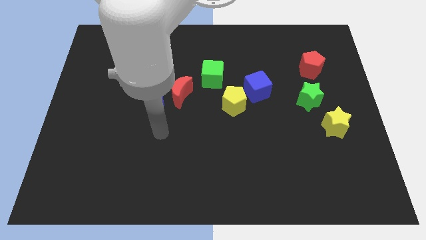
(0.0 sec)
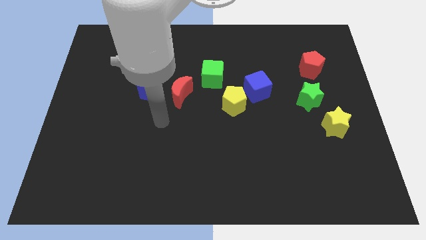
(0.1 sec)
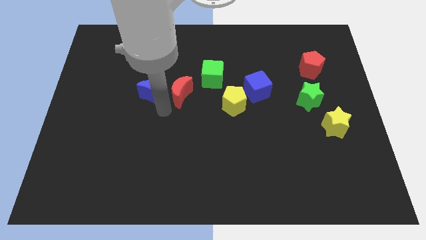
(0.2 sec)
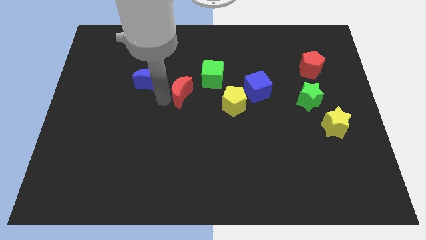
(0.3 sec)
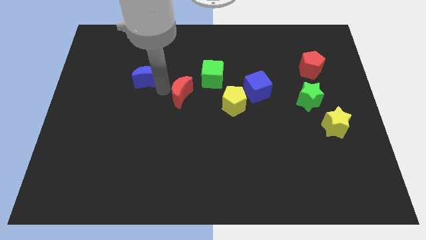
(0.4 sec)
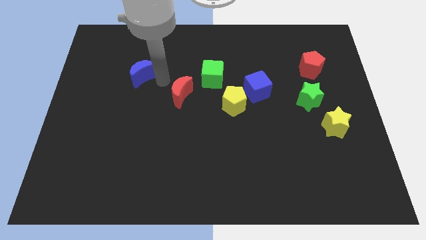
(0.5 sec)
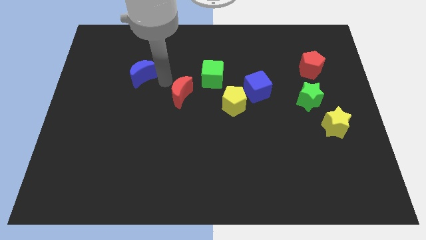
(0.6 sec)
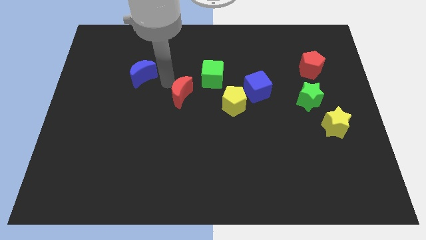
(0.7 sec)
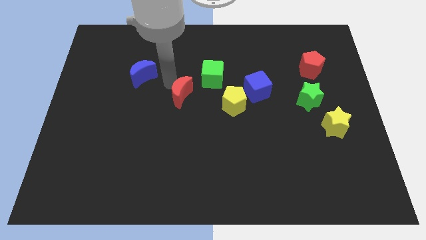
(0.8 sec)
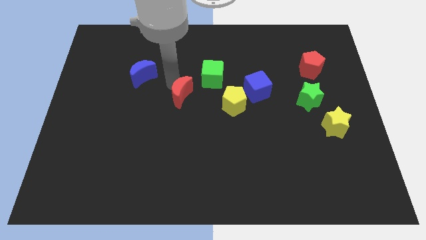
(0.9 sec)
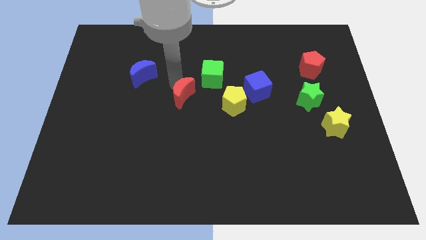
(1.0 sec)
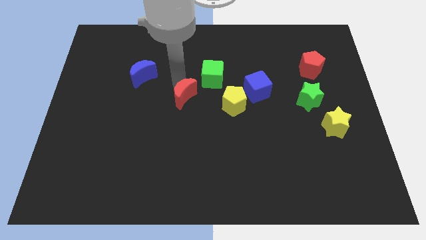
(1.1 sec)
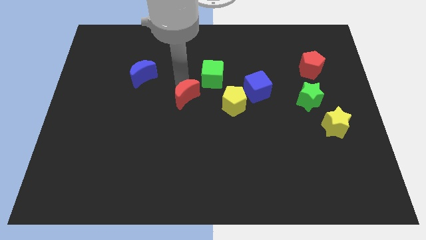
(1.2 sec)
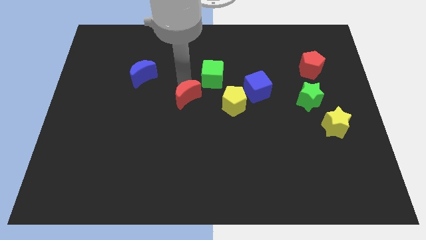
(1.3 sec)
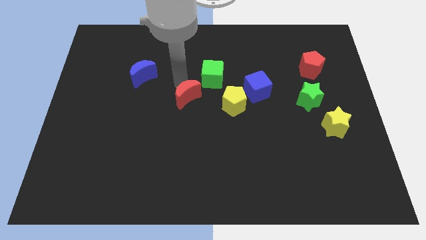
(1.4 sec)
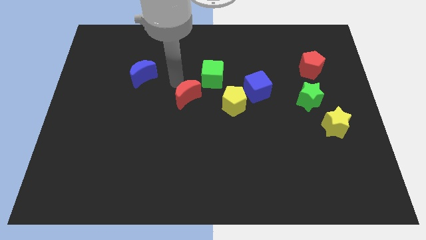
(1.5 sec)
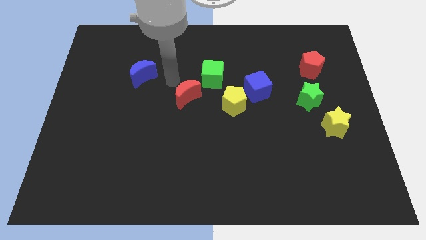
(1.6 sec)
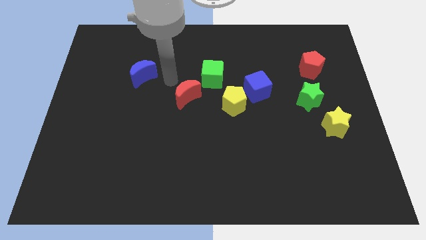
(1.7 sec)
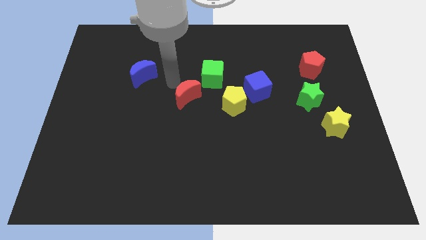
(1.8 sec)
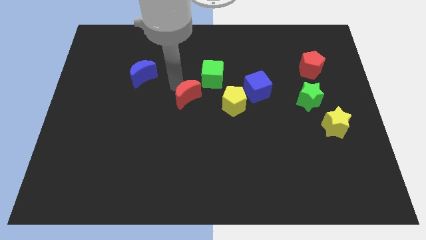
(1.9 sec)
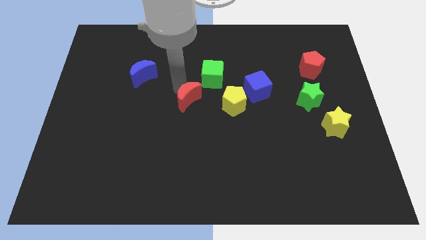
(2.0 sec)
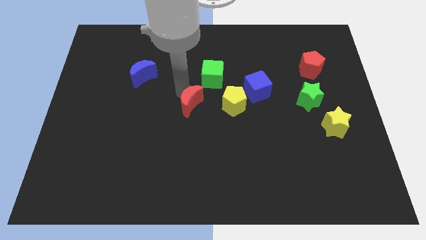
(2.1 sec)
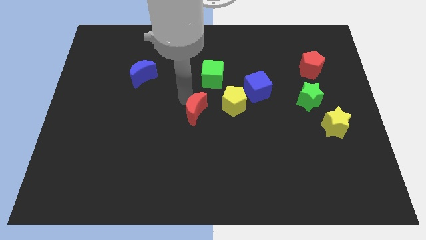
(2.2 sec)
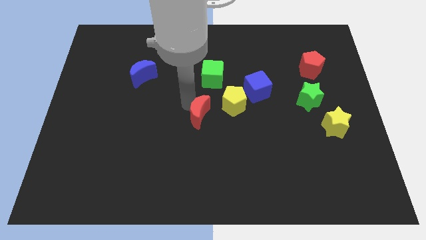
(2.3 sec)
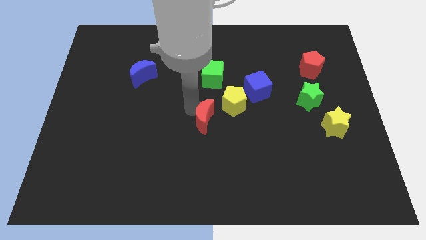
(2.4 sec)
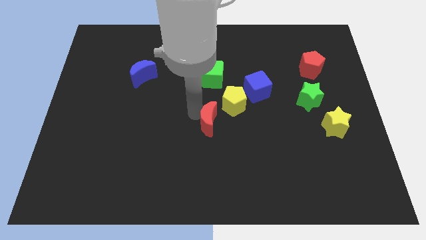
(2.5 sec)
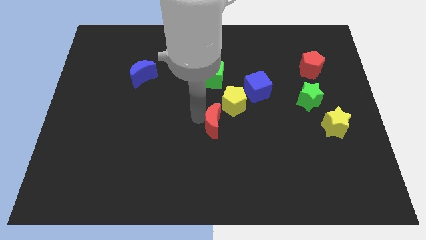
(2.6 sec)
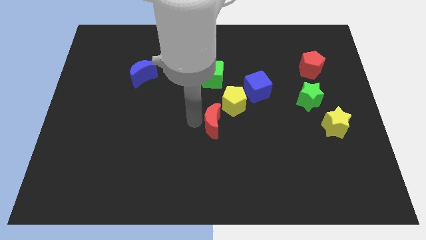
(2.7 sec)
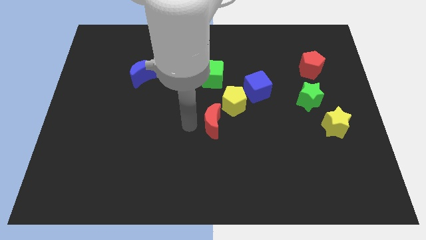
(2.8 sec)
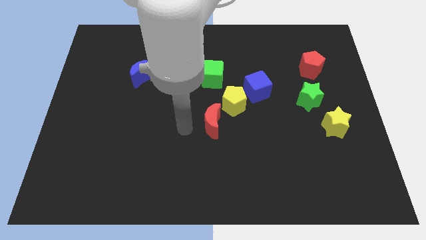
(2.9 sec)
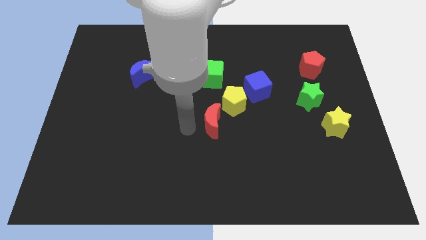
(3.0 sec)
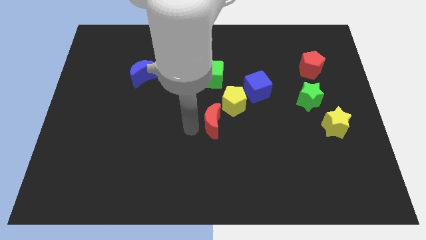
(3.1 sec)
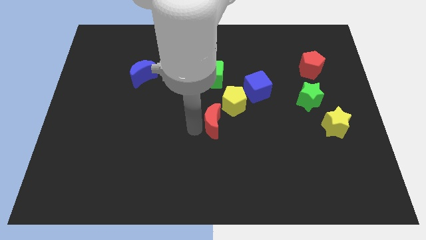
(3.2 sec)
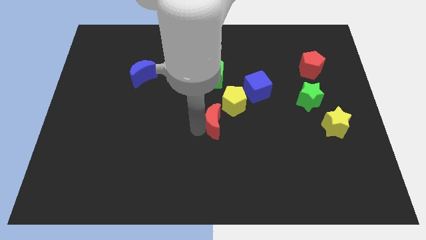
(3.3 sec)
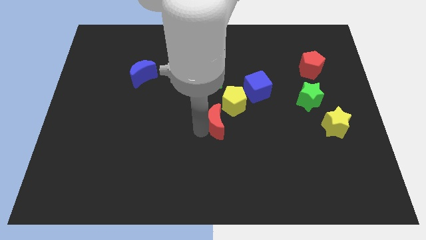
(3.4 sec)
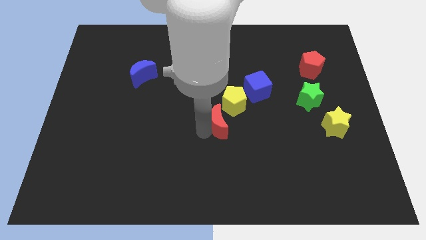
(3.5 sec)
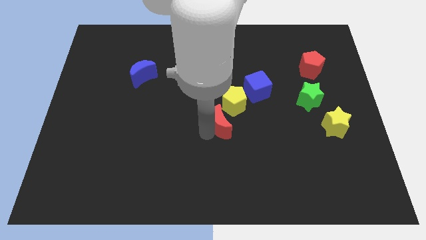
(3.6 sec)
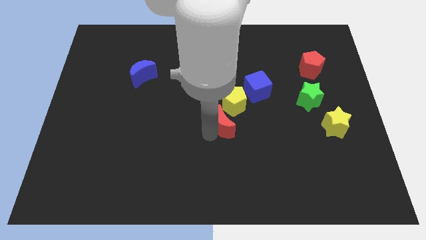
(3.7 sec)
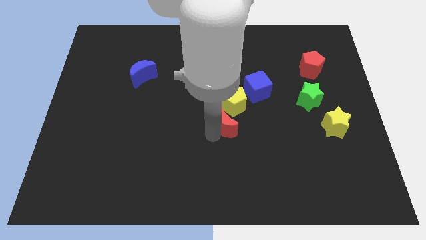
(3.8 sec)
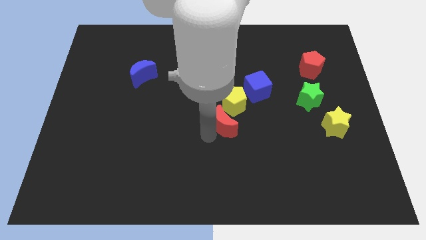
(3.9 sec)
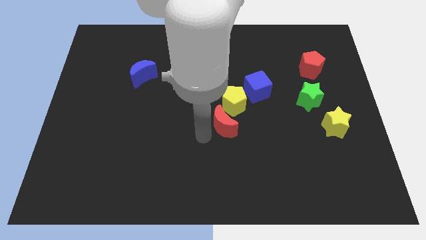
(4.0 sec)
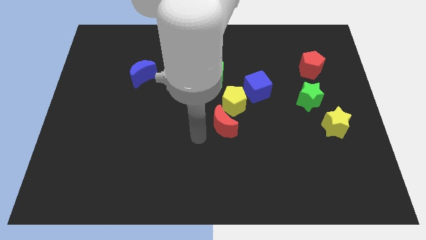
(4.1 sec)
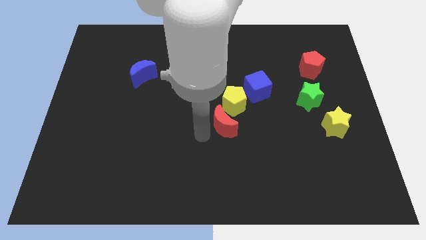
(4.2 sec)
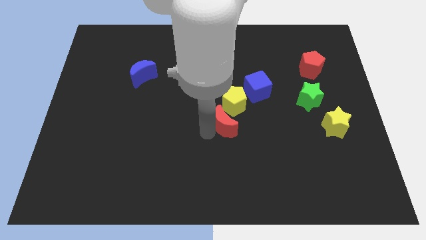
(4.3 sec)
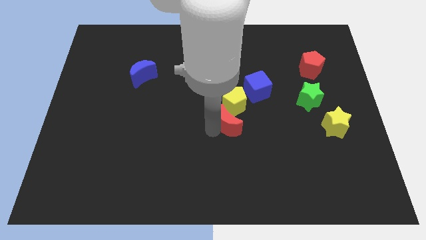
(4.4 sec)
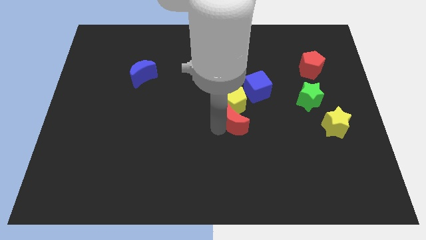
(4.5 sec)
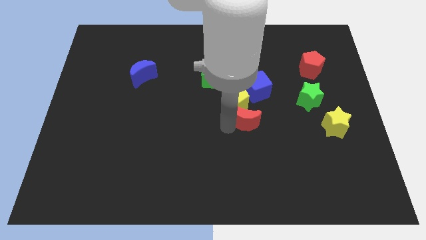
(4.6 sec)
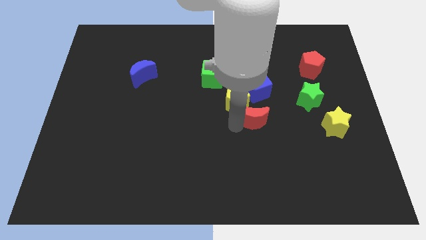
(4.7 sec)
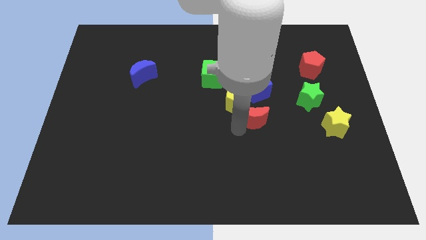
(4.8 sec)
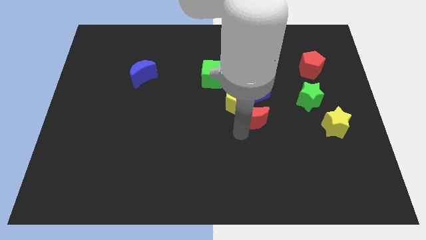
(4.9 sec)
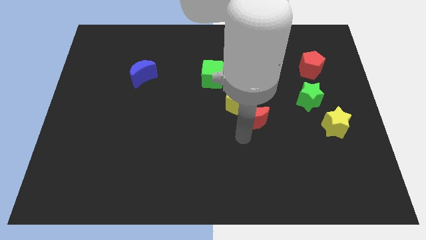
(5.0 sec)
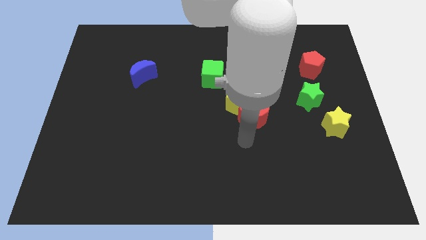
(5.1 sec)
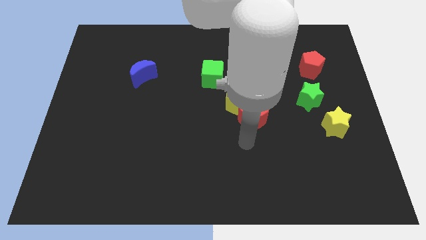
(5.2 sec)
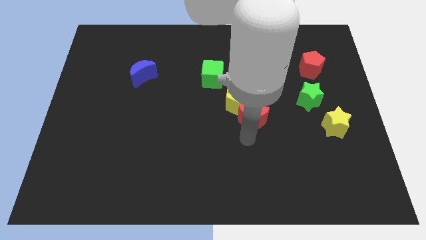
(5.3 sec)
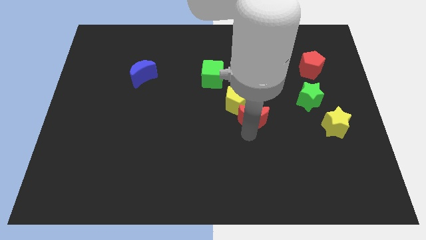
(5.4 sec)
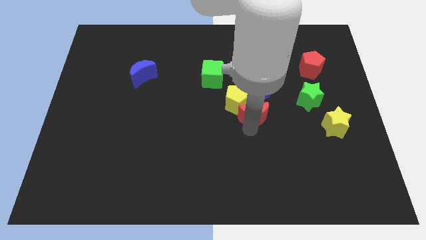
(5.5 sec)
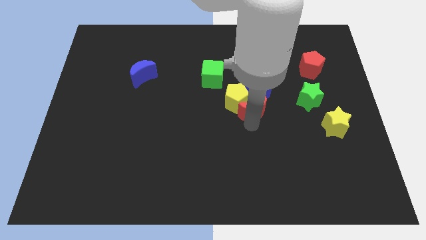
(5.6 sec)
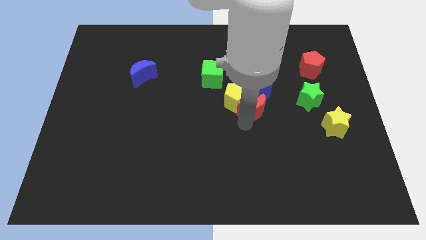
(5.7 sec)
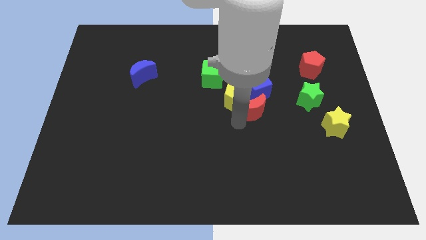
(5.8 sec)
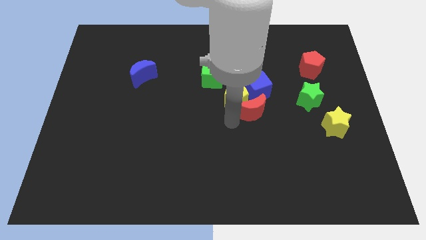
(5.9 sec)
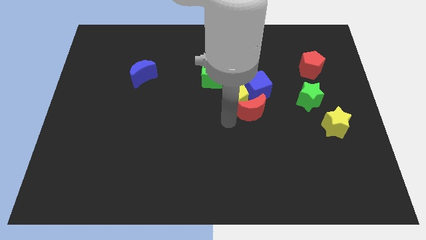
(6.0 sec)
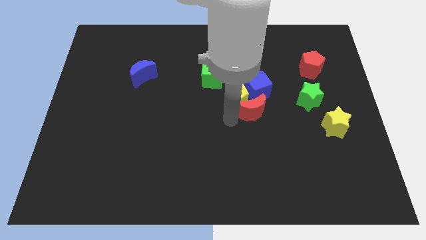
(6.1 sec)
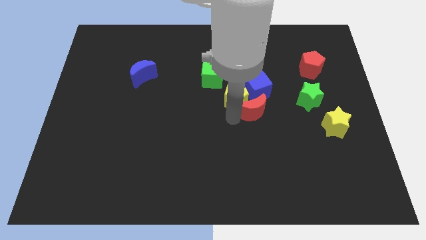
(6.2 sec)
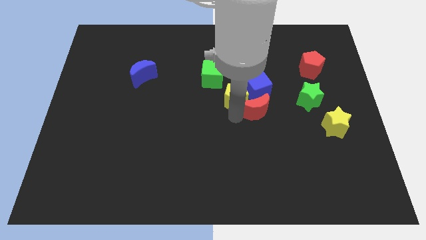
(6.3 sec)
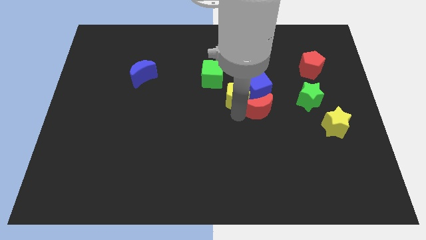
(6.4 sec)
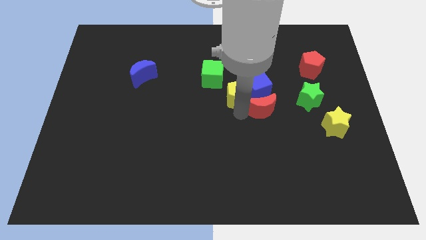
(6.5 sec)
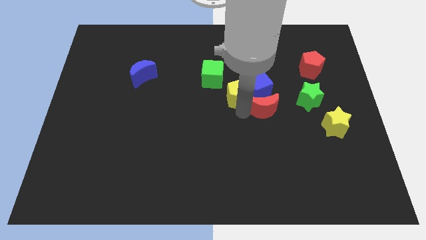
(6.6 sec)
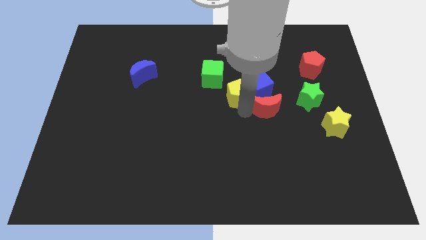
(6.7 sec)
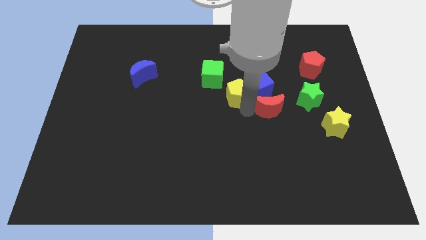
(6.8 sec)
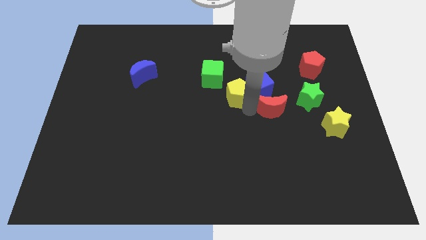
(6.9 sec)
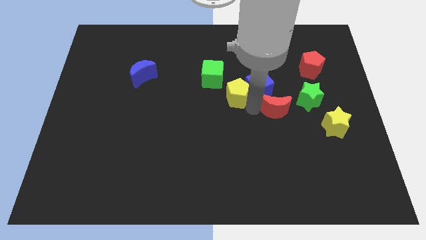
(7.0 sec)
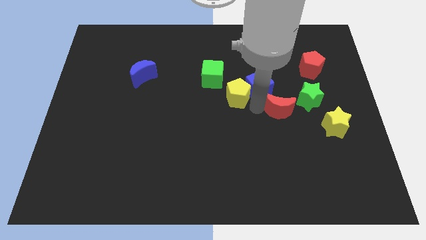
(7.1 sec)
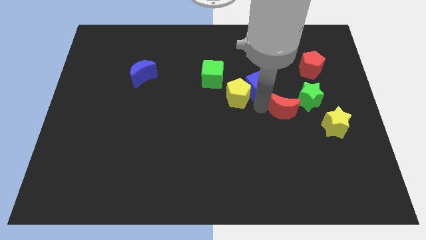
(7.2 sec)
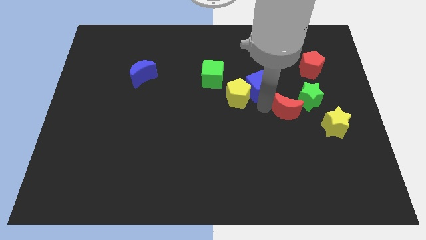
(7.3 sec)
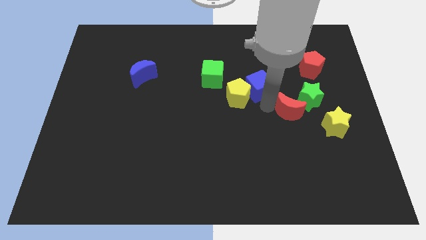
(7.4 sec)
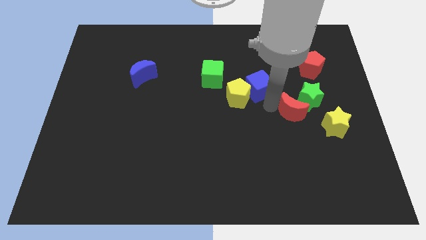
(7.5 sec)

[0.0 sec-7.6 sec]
push the red moon towards the green star
